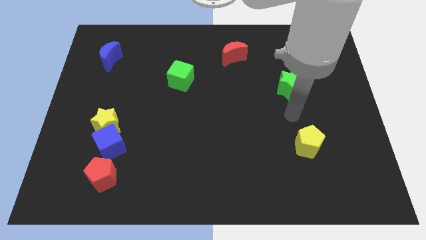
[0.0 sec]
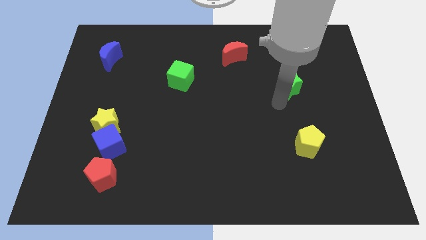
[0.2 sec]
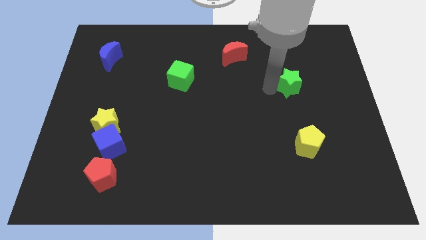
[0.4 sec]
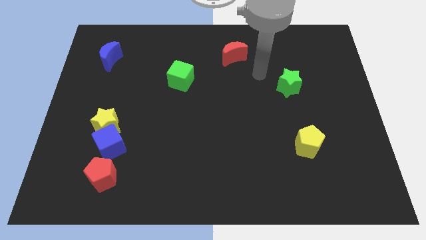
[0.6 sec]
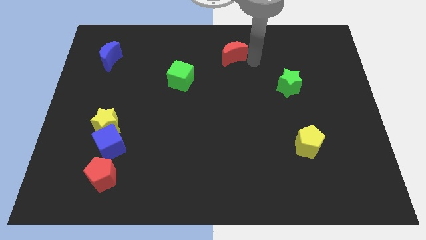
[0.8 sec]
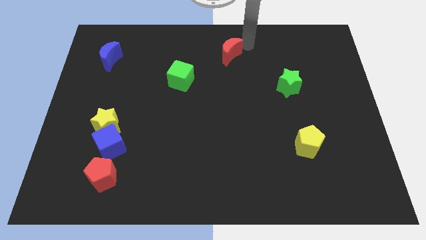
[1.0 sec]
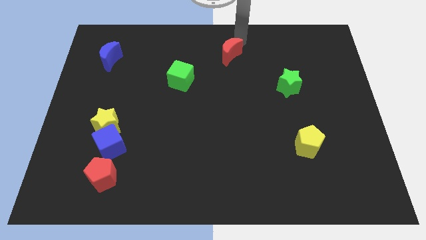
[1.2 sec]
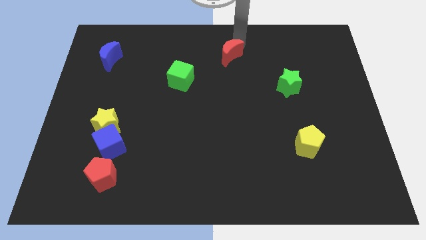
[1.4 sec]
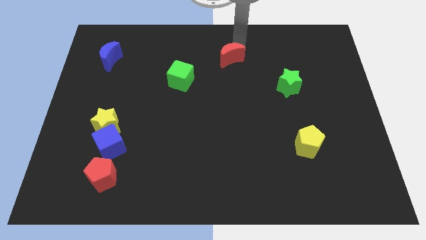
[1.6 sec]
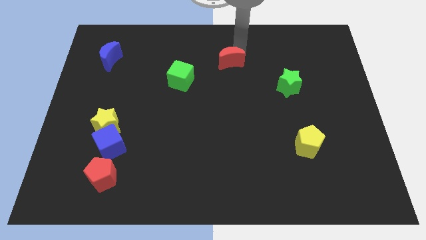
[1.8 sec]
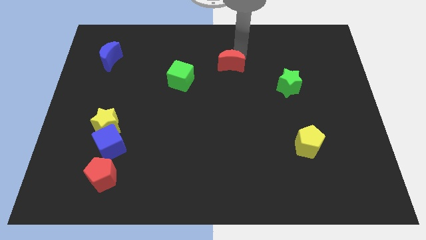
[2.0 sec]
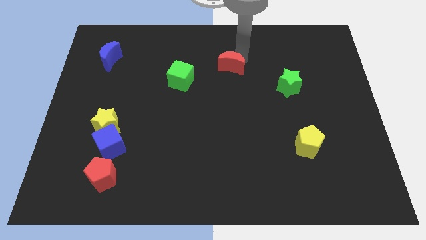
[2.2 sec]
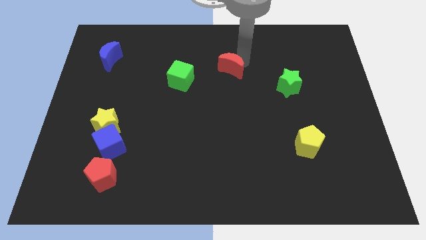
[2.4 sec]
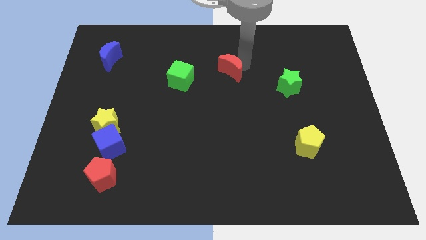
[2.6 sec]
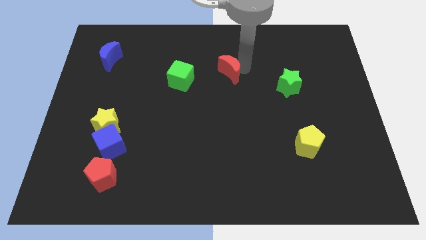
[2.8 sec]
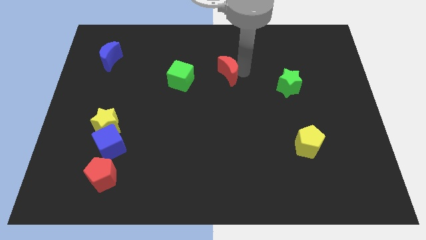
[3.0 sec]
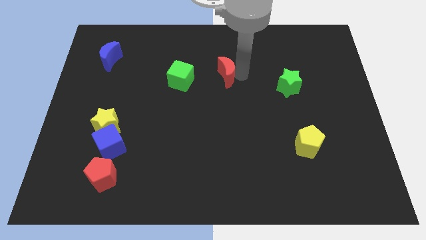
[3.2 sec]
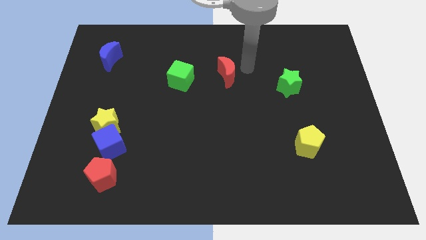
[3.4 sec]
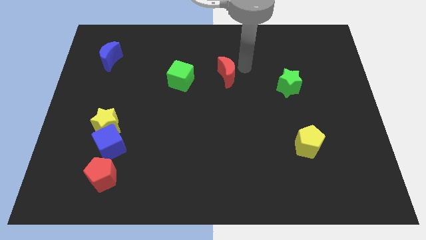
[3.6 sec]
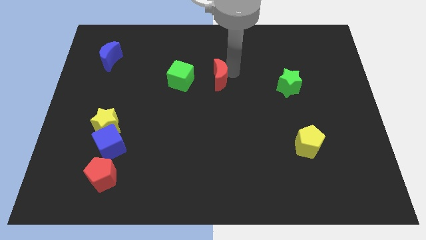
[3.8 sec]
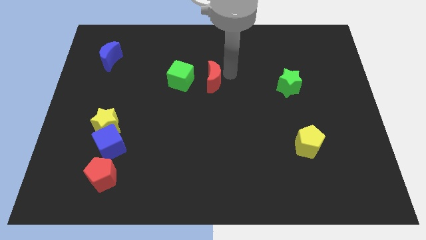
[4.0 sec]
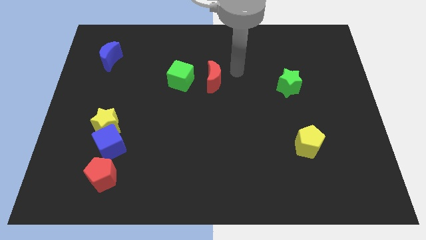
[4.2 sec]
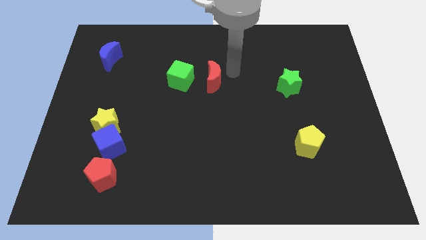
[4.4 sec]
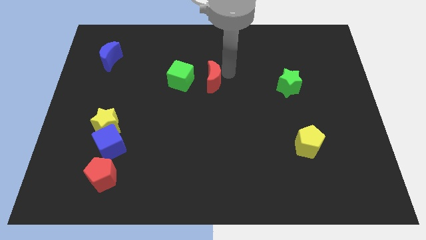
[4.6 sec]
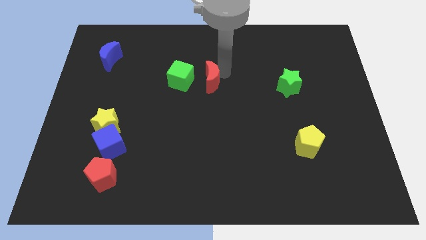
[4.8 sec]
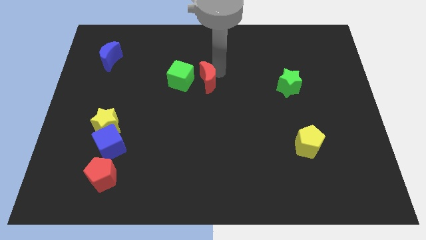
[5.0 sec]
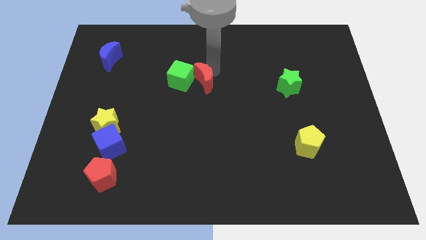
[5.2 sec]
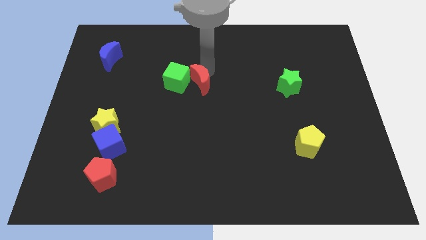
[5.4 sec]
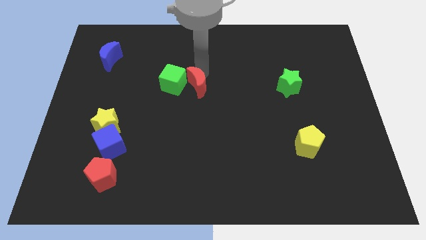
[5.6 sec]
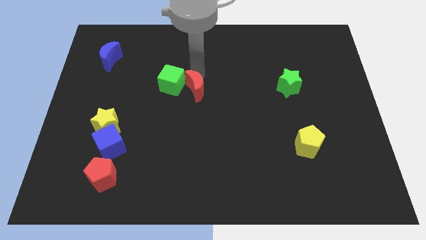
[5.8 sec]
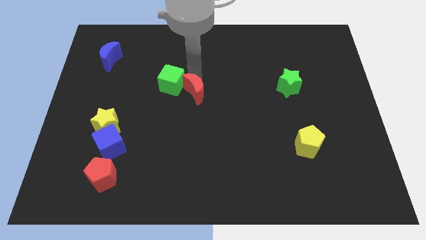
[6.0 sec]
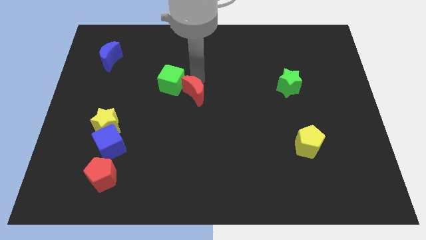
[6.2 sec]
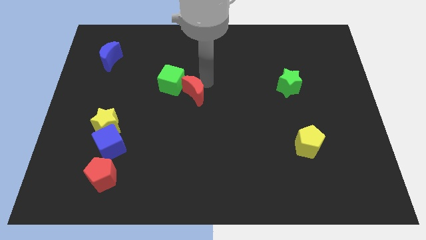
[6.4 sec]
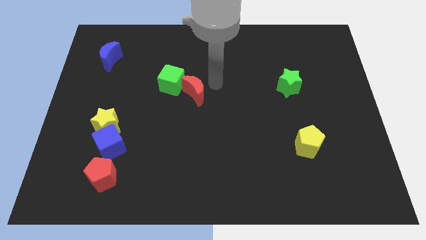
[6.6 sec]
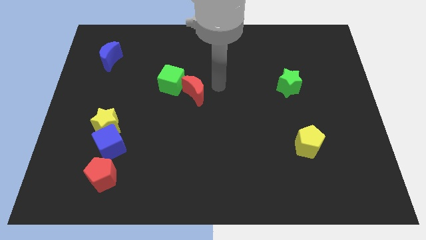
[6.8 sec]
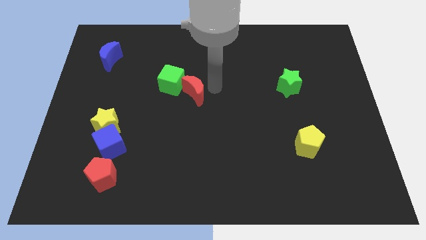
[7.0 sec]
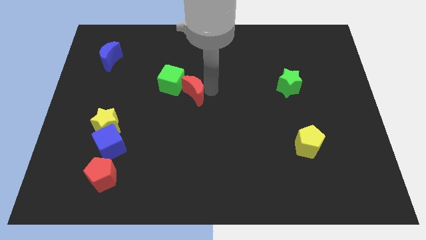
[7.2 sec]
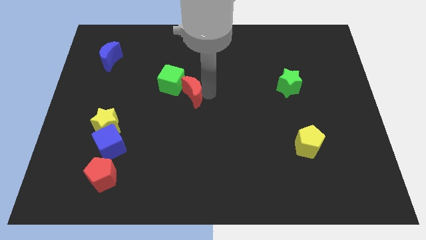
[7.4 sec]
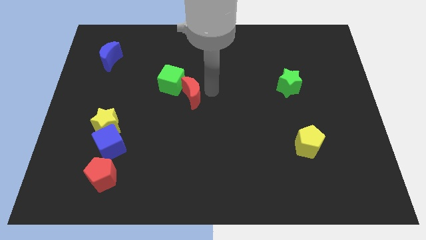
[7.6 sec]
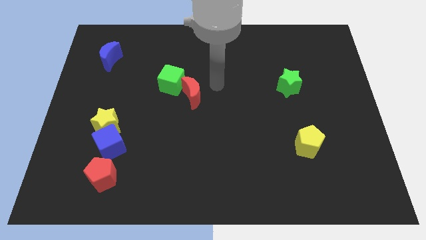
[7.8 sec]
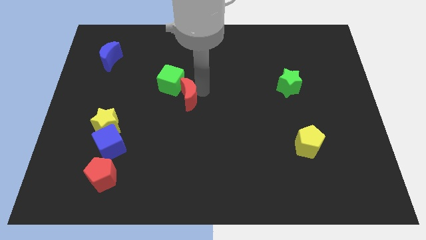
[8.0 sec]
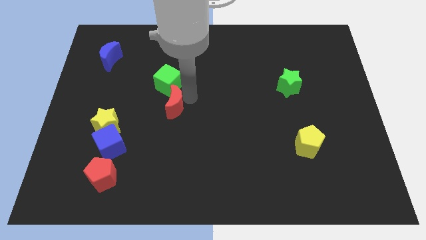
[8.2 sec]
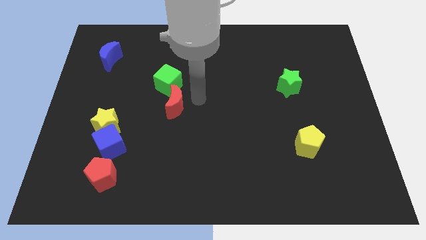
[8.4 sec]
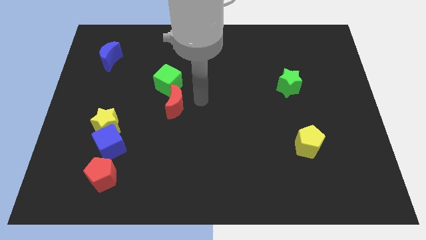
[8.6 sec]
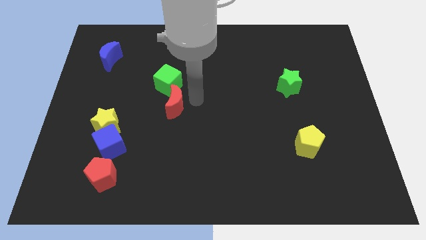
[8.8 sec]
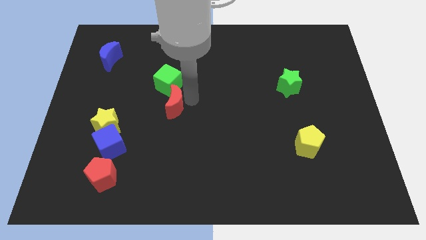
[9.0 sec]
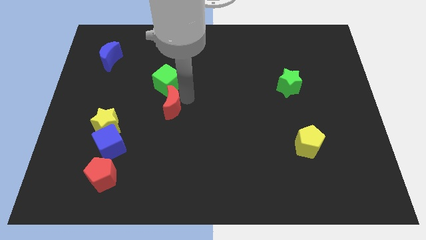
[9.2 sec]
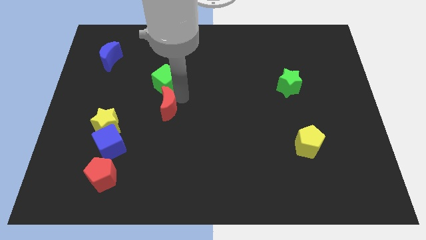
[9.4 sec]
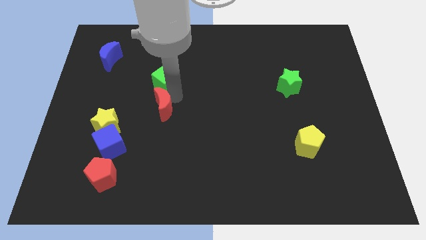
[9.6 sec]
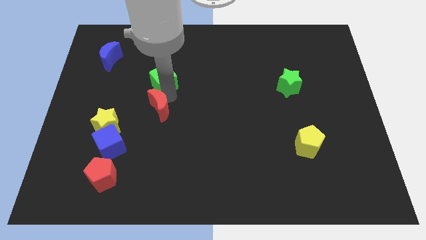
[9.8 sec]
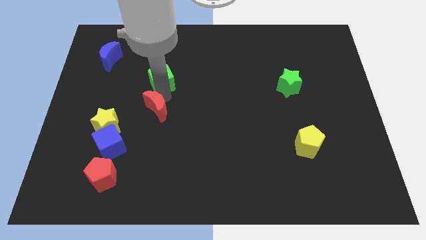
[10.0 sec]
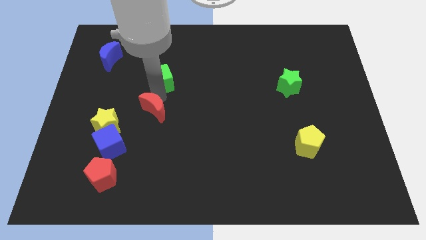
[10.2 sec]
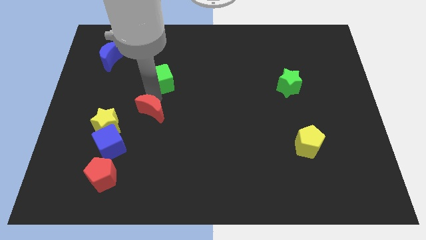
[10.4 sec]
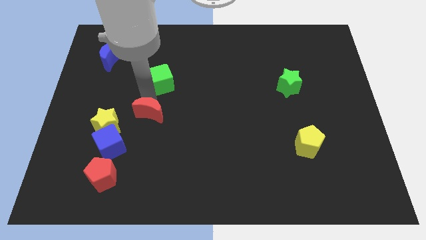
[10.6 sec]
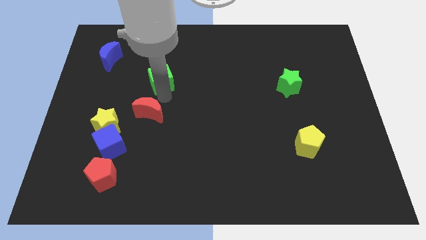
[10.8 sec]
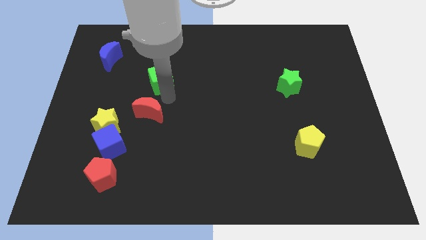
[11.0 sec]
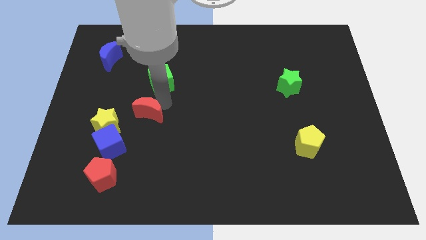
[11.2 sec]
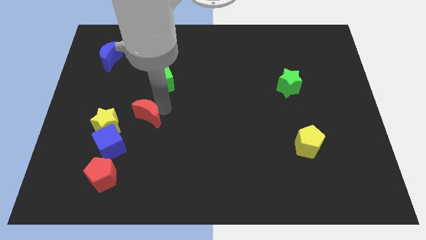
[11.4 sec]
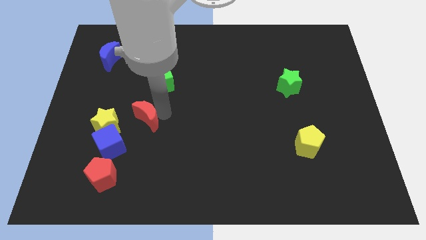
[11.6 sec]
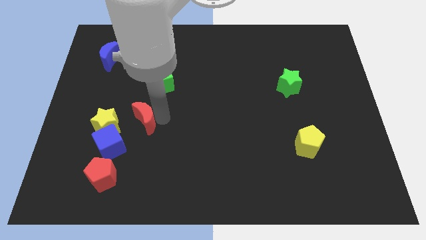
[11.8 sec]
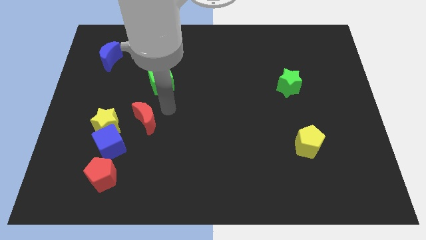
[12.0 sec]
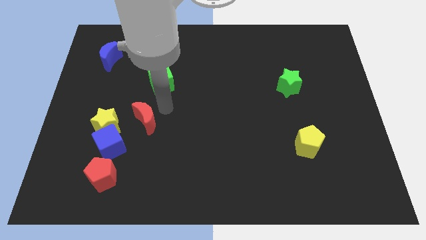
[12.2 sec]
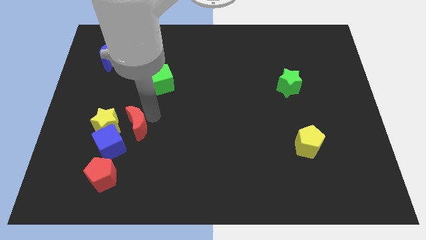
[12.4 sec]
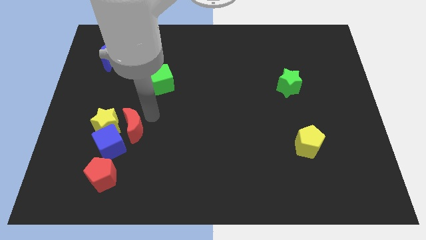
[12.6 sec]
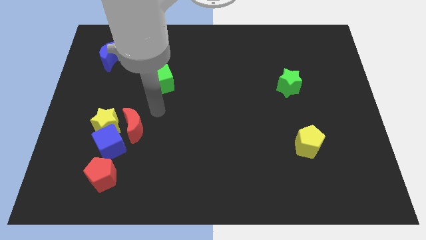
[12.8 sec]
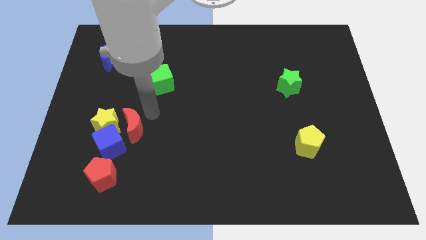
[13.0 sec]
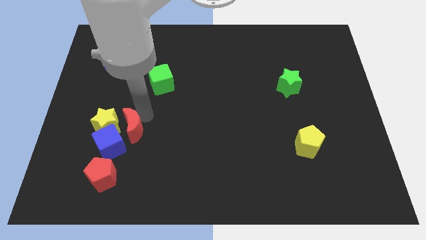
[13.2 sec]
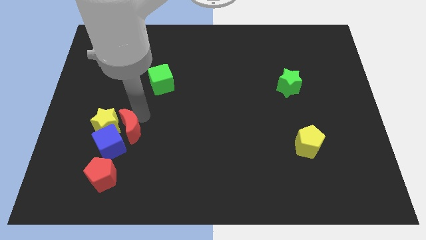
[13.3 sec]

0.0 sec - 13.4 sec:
put the red moon to the blue cube
